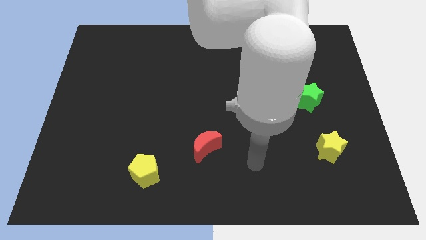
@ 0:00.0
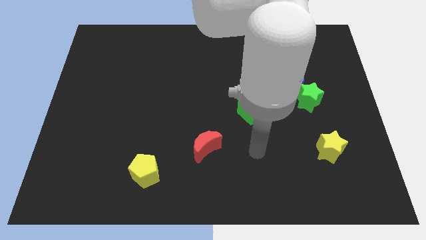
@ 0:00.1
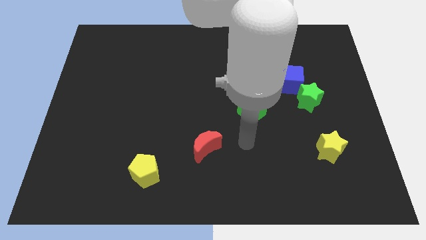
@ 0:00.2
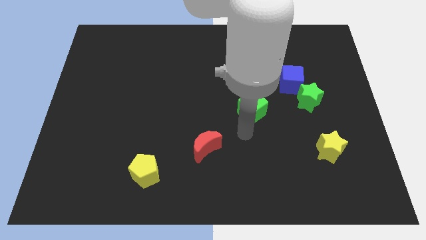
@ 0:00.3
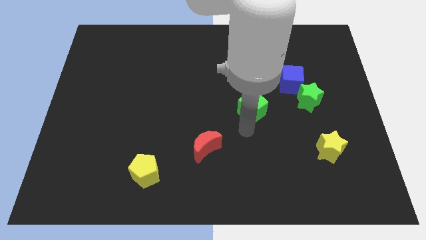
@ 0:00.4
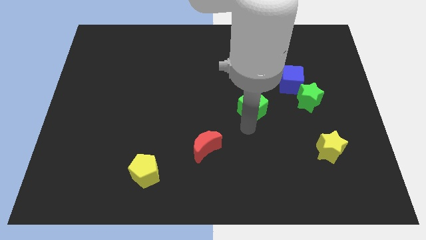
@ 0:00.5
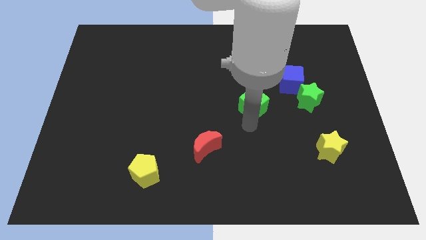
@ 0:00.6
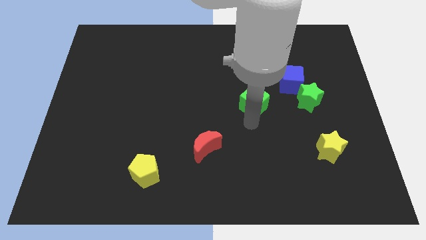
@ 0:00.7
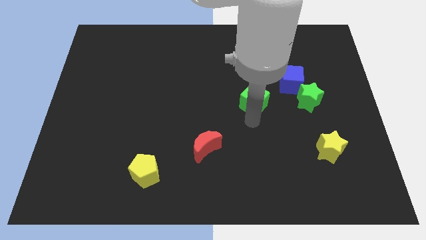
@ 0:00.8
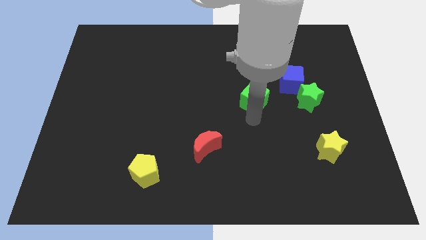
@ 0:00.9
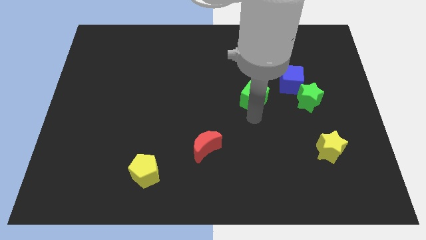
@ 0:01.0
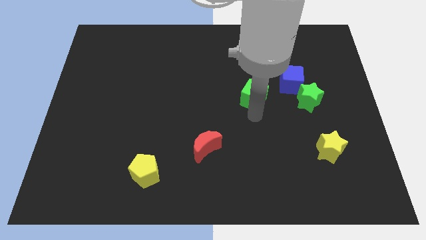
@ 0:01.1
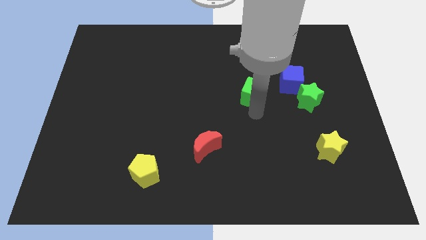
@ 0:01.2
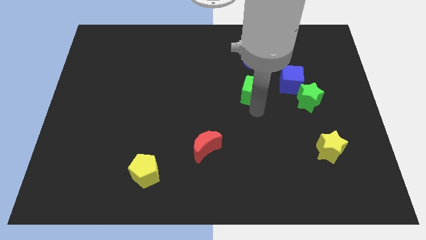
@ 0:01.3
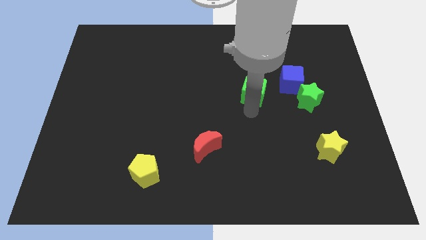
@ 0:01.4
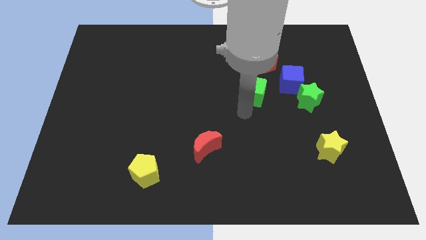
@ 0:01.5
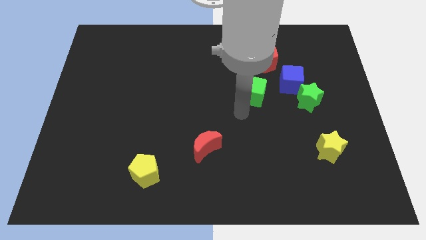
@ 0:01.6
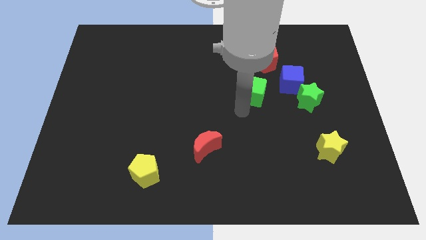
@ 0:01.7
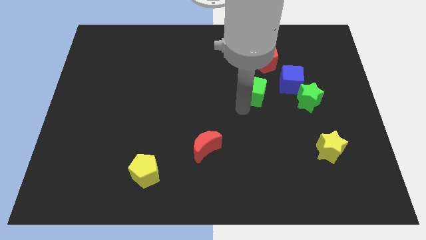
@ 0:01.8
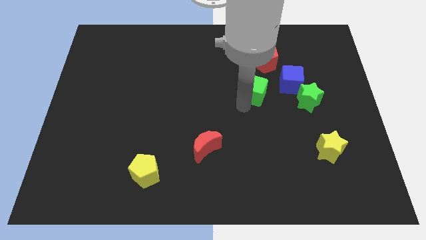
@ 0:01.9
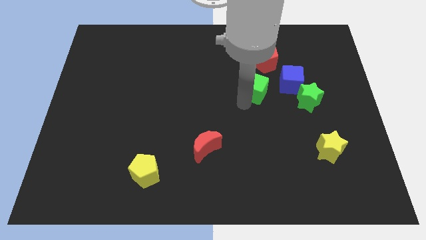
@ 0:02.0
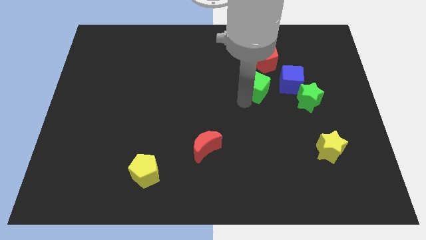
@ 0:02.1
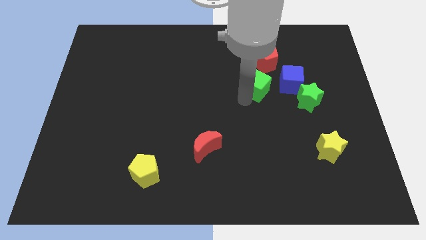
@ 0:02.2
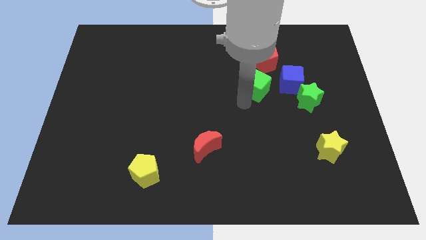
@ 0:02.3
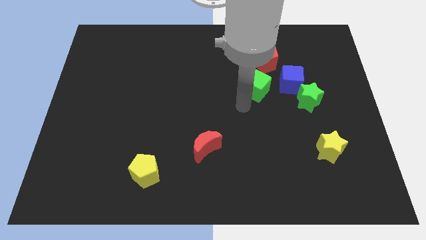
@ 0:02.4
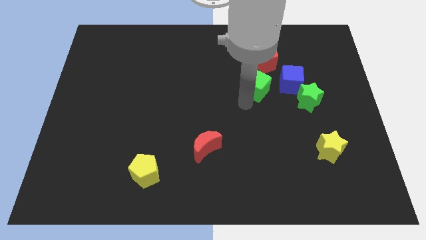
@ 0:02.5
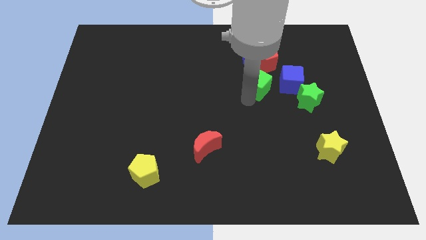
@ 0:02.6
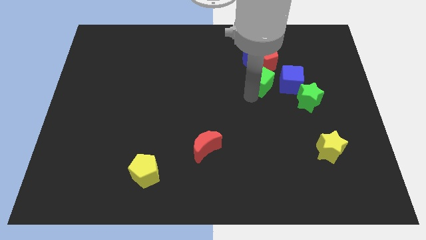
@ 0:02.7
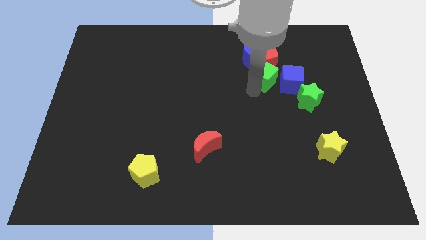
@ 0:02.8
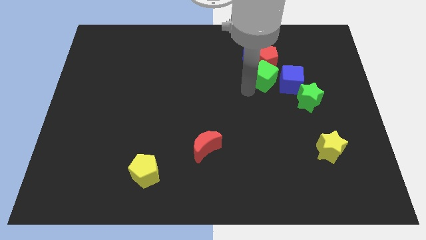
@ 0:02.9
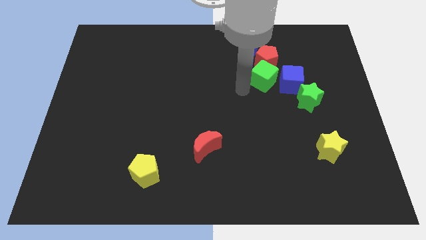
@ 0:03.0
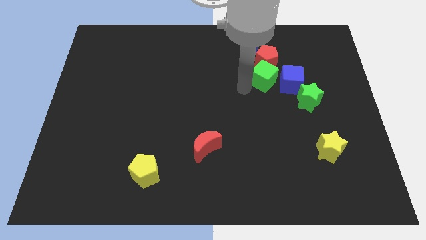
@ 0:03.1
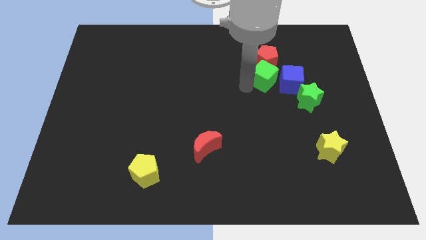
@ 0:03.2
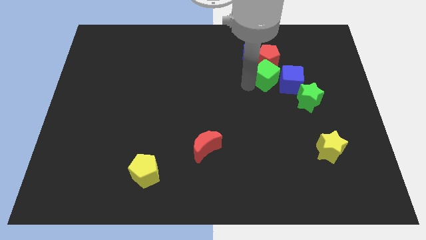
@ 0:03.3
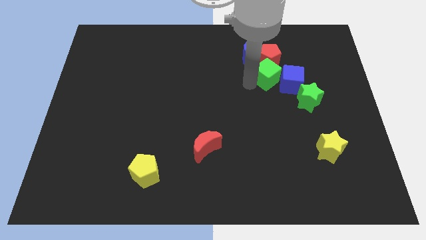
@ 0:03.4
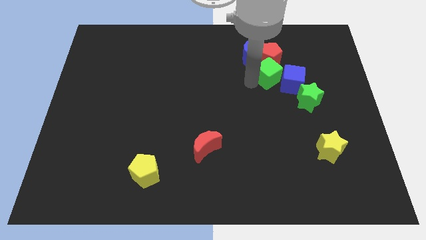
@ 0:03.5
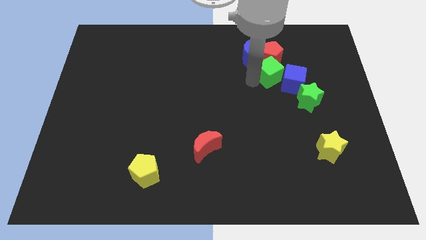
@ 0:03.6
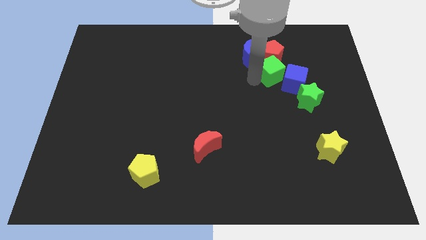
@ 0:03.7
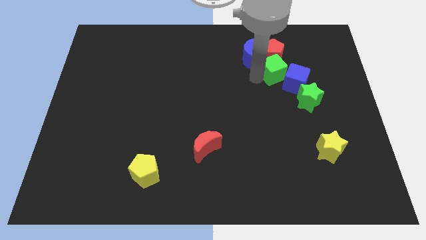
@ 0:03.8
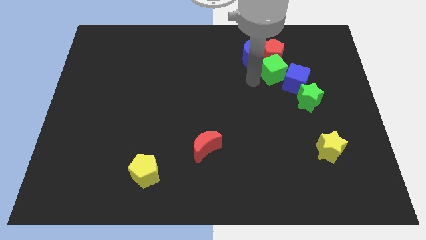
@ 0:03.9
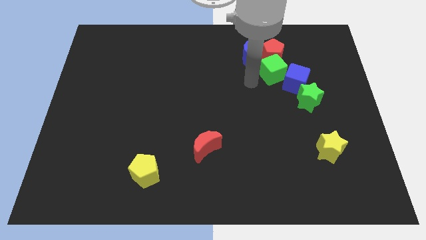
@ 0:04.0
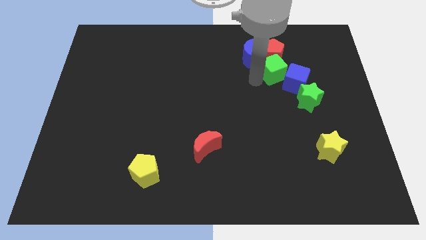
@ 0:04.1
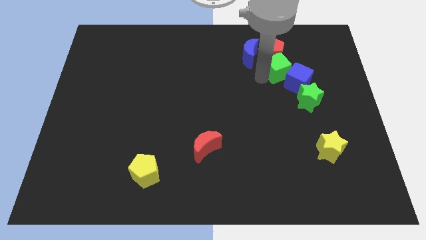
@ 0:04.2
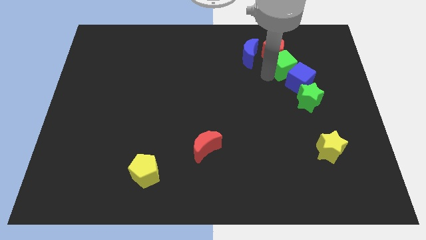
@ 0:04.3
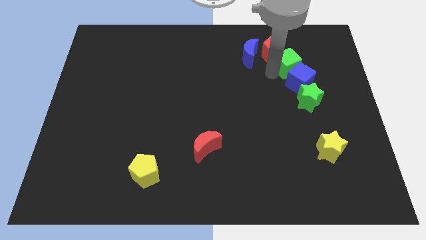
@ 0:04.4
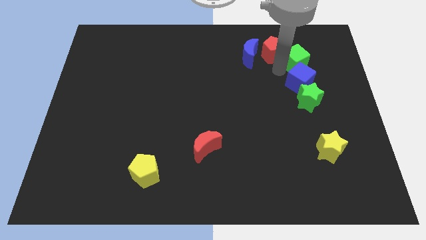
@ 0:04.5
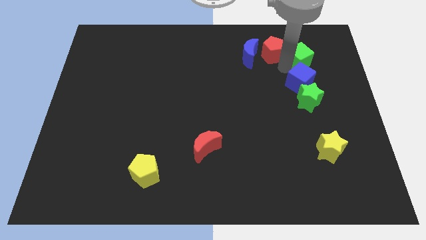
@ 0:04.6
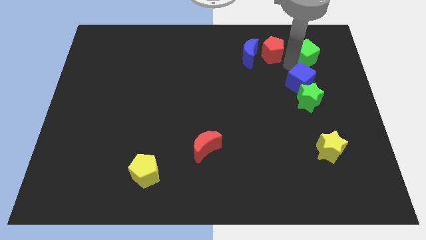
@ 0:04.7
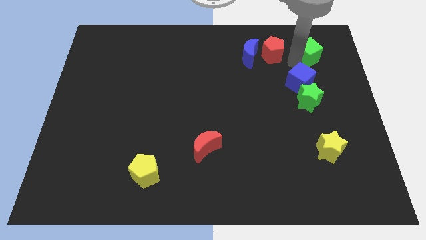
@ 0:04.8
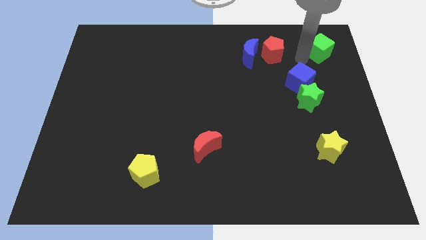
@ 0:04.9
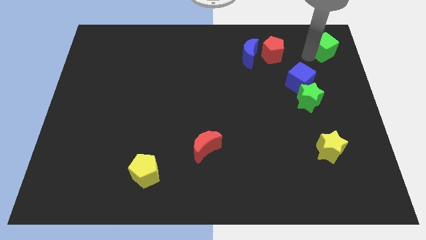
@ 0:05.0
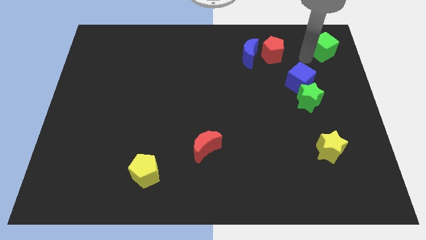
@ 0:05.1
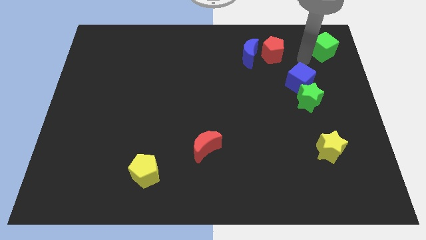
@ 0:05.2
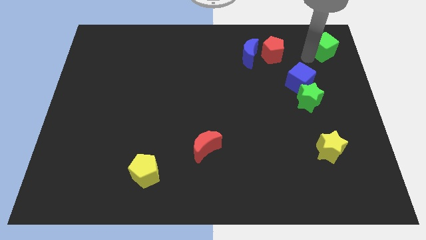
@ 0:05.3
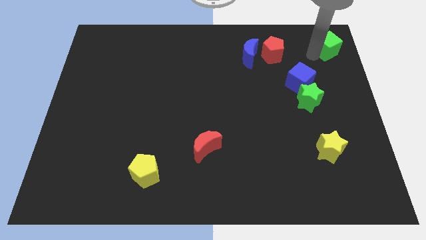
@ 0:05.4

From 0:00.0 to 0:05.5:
move the green cube to the upper right corner

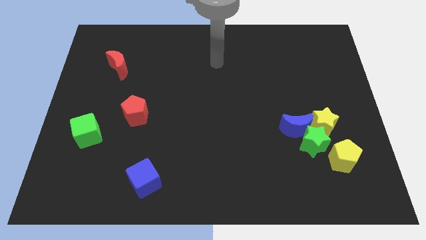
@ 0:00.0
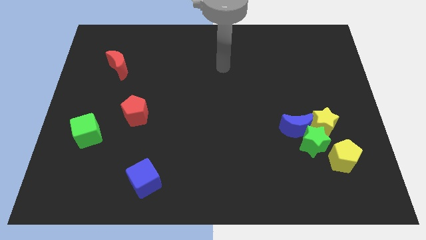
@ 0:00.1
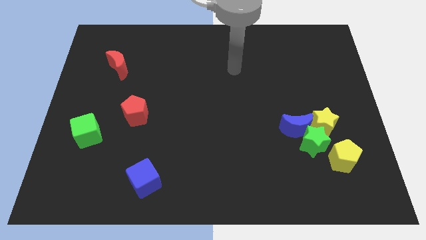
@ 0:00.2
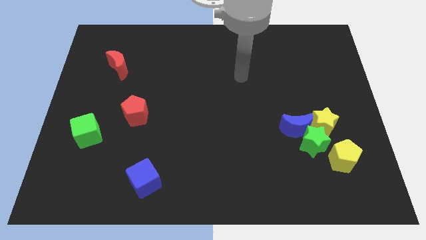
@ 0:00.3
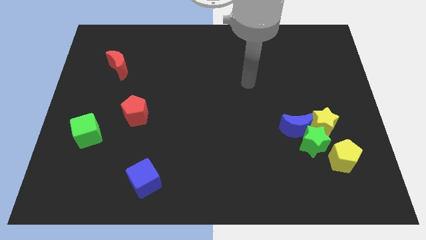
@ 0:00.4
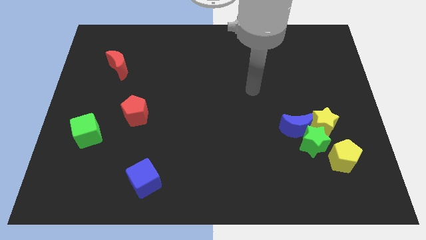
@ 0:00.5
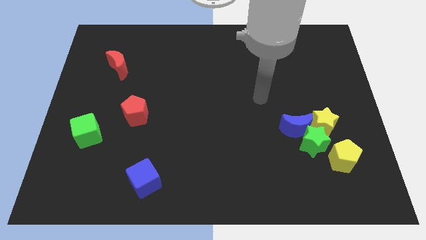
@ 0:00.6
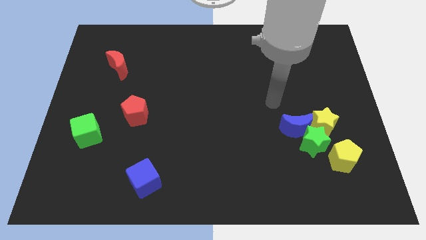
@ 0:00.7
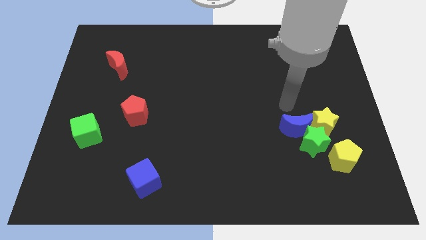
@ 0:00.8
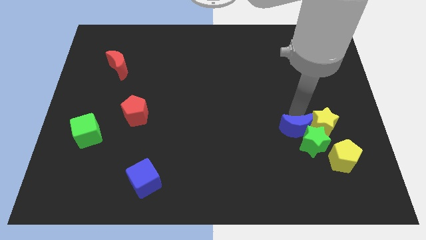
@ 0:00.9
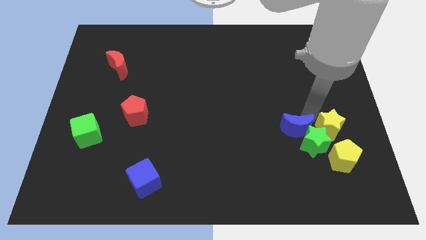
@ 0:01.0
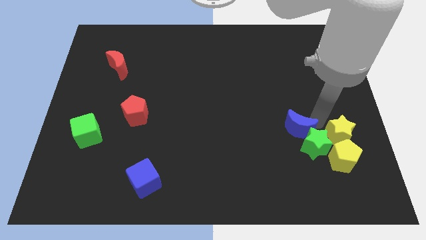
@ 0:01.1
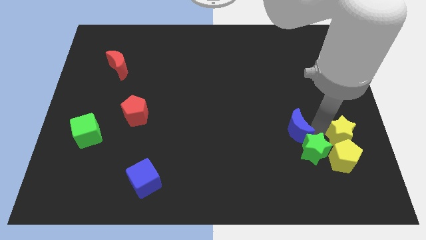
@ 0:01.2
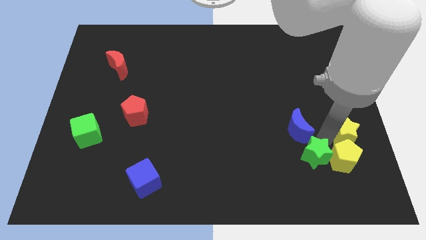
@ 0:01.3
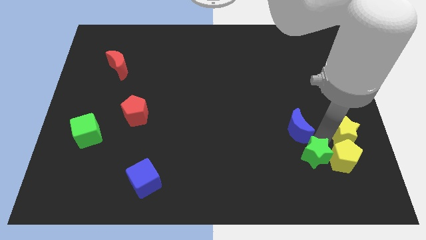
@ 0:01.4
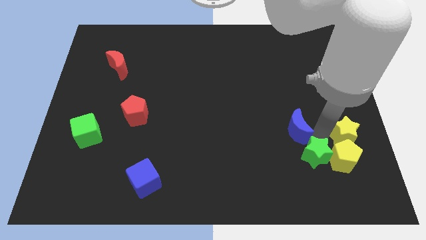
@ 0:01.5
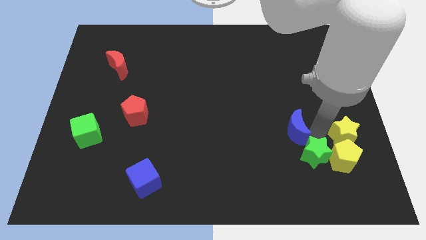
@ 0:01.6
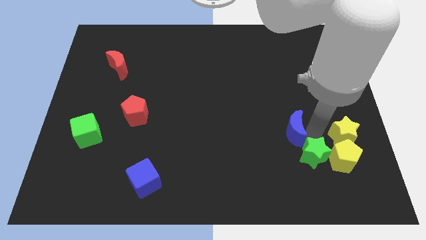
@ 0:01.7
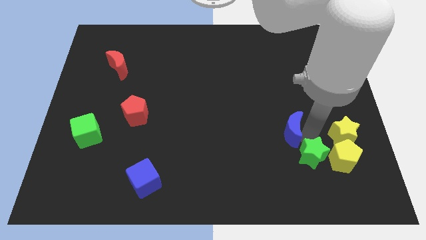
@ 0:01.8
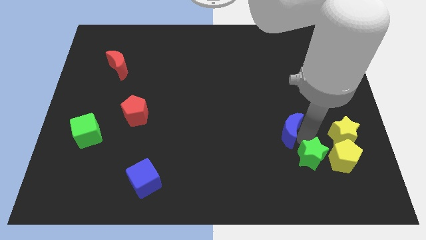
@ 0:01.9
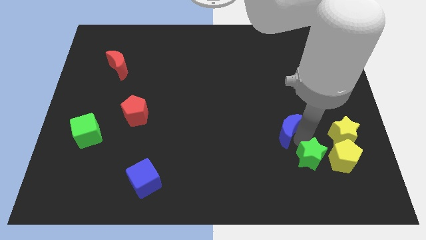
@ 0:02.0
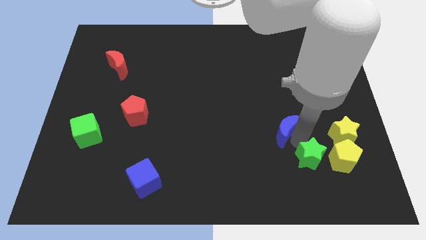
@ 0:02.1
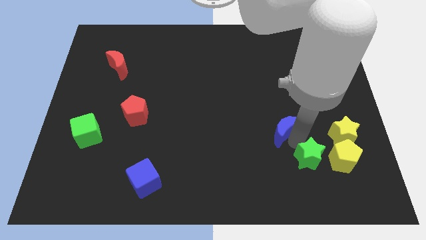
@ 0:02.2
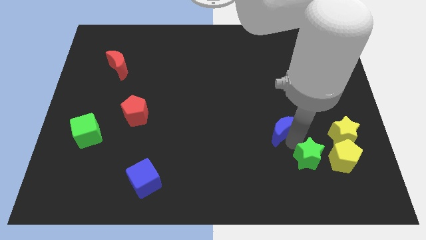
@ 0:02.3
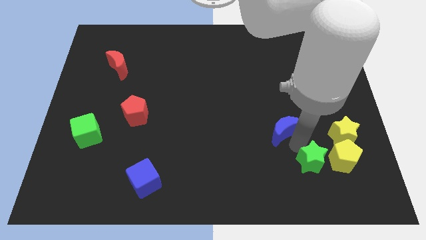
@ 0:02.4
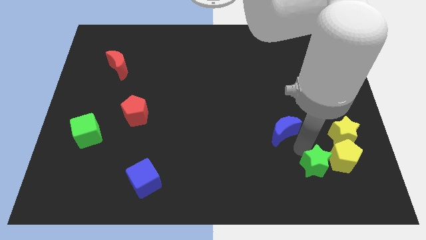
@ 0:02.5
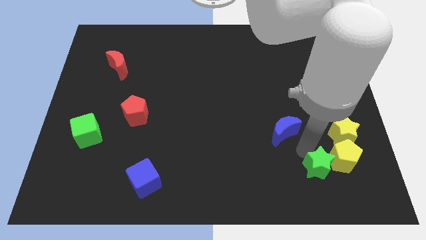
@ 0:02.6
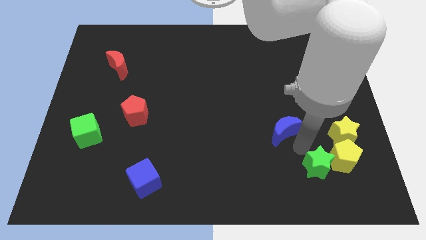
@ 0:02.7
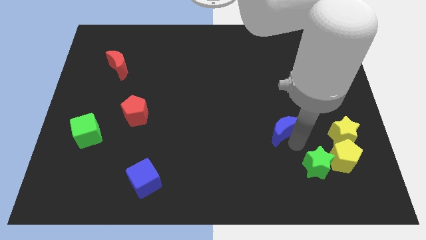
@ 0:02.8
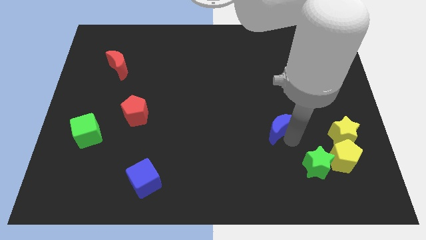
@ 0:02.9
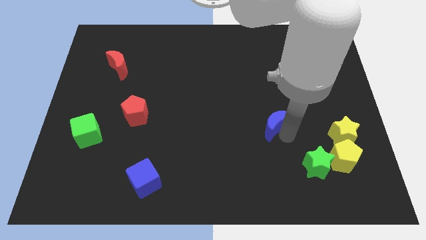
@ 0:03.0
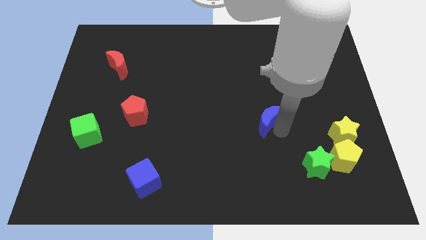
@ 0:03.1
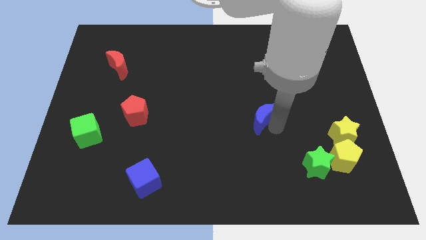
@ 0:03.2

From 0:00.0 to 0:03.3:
slide the blue moon to the middle of the board
